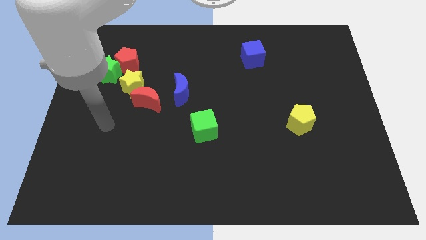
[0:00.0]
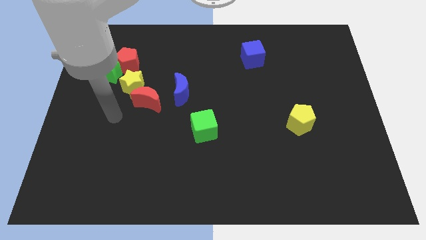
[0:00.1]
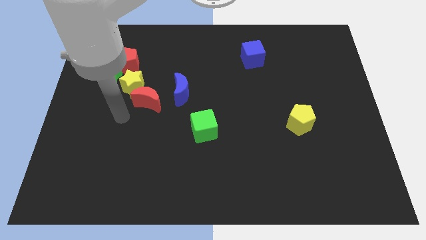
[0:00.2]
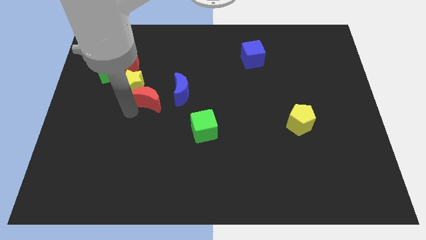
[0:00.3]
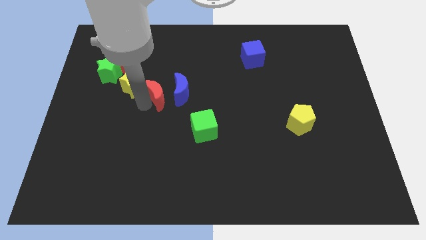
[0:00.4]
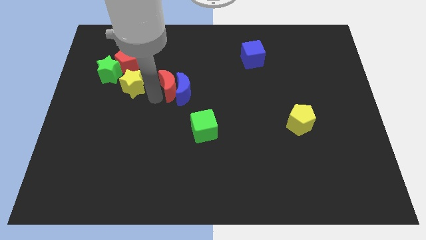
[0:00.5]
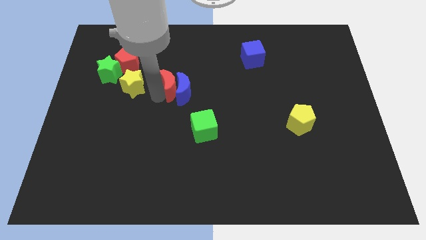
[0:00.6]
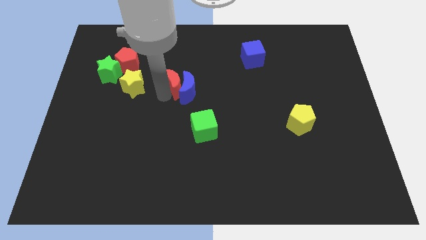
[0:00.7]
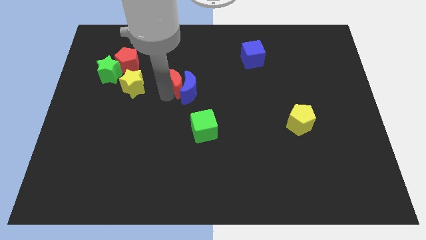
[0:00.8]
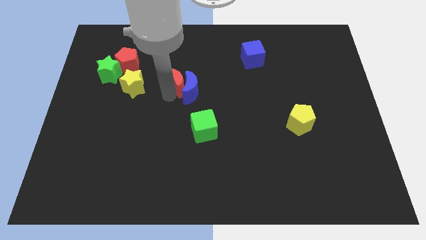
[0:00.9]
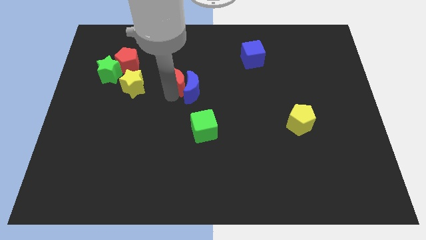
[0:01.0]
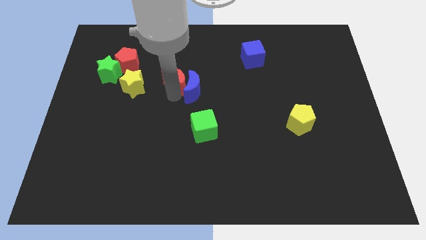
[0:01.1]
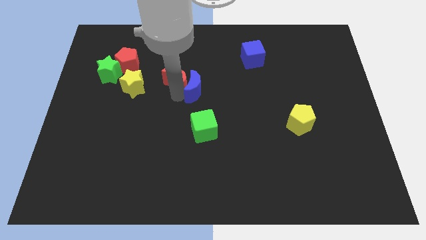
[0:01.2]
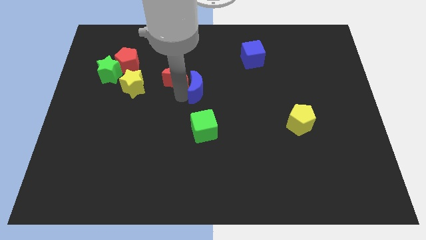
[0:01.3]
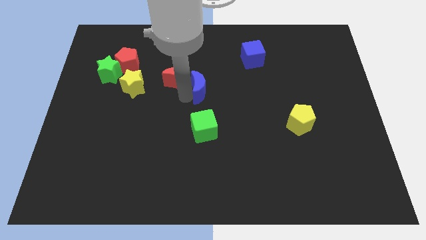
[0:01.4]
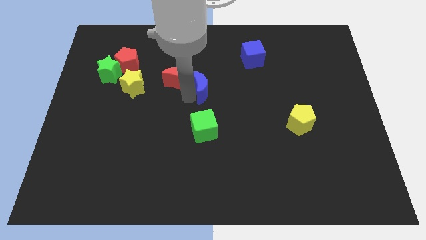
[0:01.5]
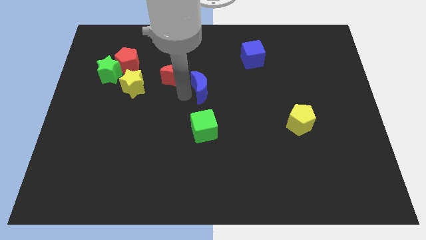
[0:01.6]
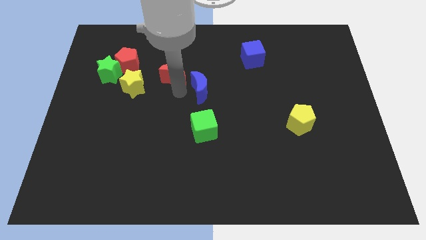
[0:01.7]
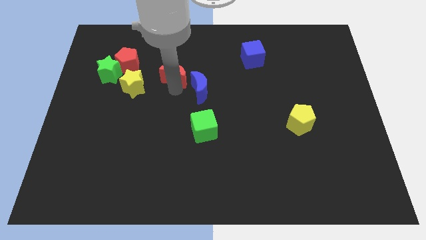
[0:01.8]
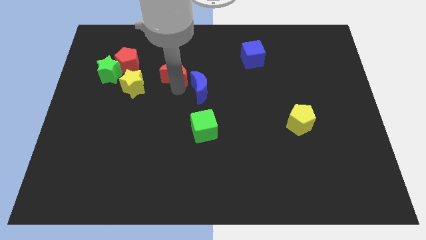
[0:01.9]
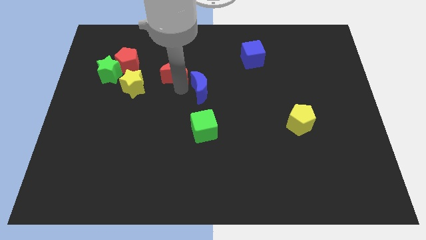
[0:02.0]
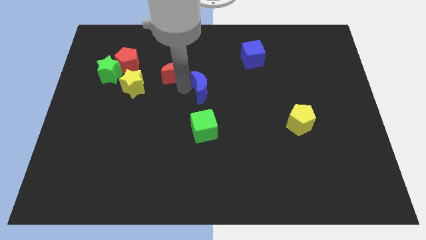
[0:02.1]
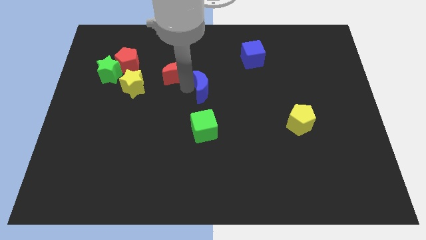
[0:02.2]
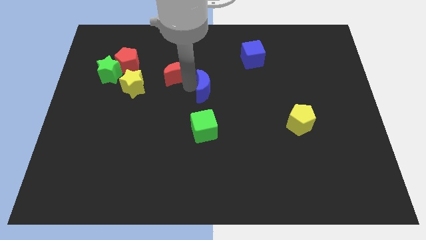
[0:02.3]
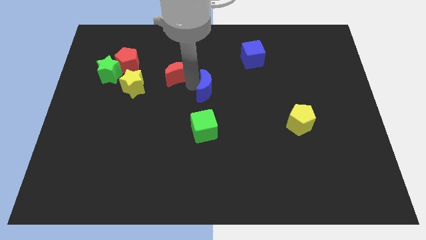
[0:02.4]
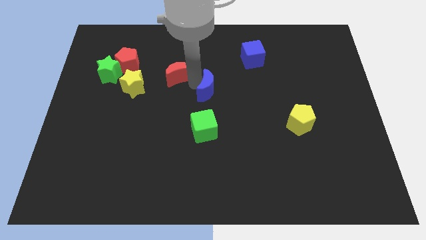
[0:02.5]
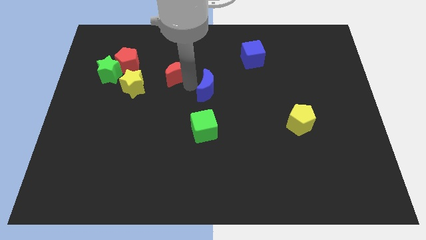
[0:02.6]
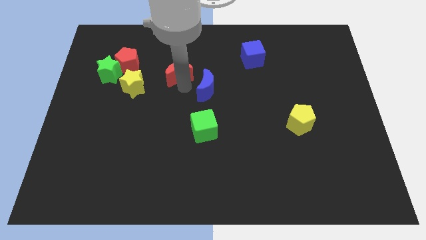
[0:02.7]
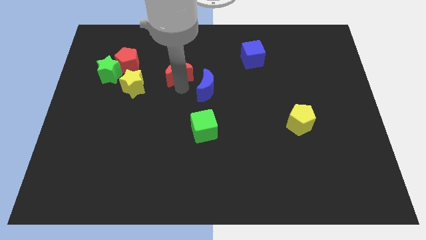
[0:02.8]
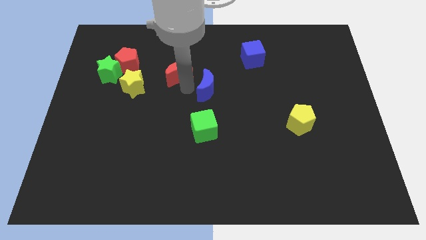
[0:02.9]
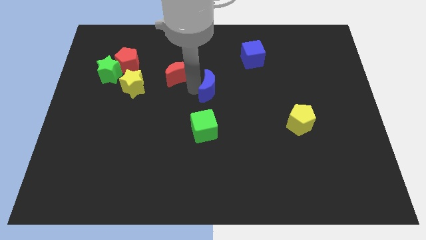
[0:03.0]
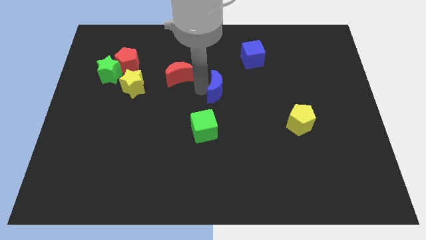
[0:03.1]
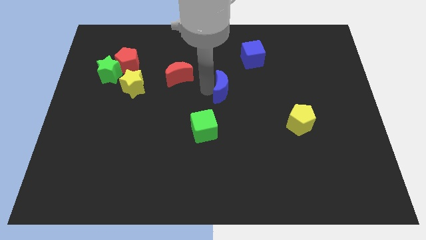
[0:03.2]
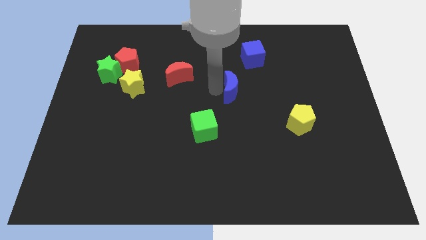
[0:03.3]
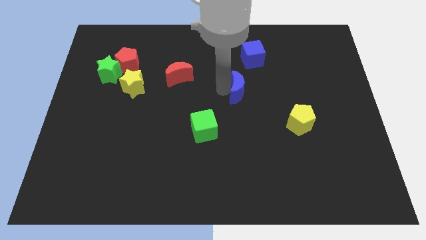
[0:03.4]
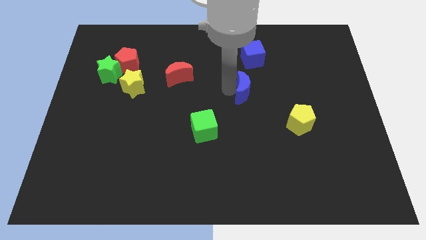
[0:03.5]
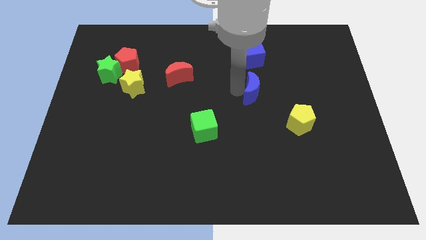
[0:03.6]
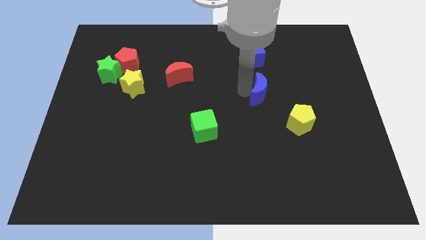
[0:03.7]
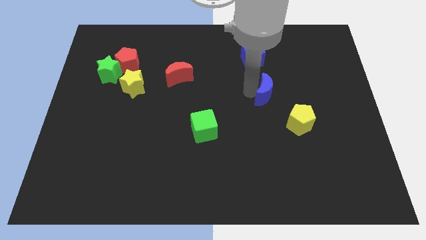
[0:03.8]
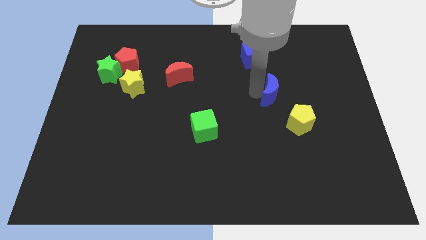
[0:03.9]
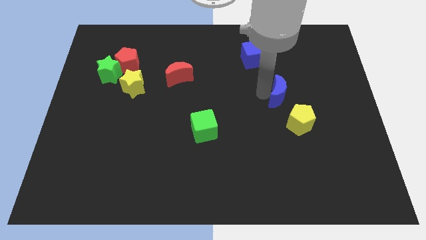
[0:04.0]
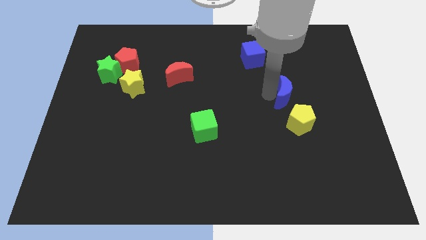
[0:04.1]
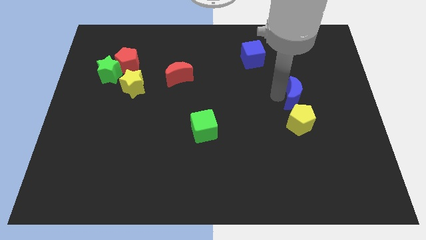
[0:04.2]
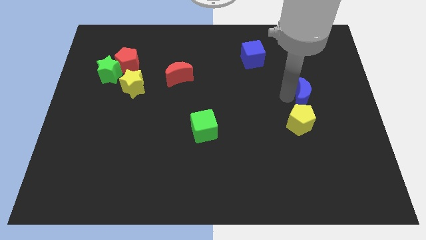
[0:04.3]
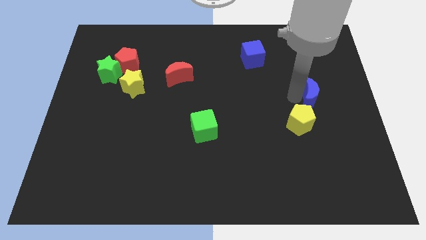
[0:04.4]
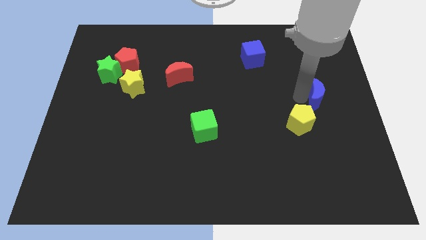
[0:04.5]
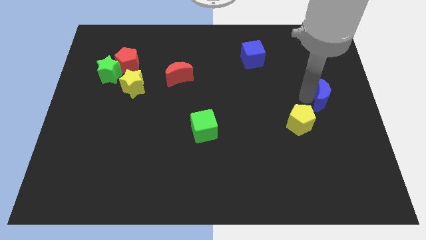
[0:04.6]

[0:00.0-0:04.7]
put the blue moon to the right side

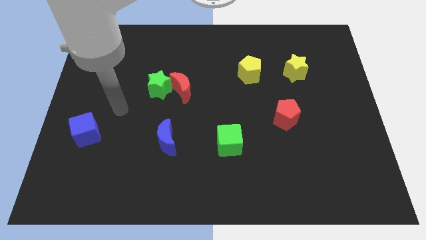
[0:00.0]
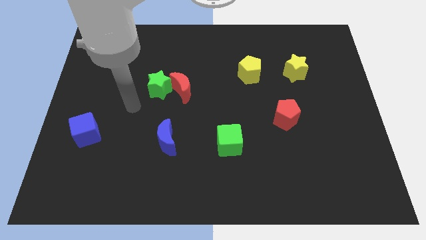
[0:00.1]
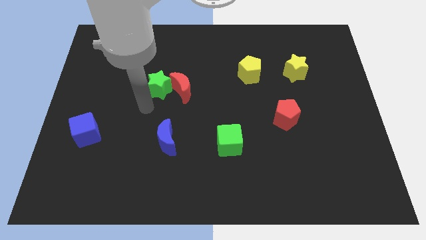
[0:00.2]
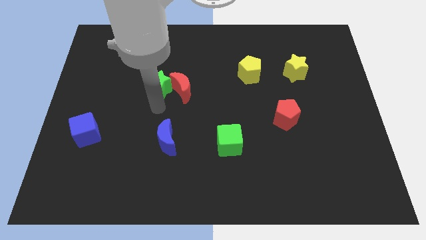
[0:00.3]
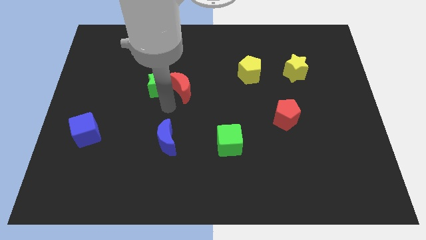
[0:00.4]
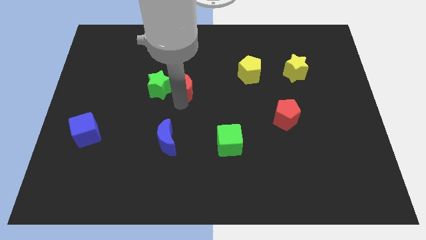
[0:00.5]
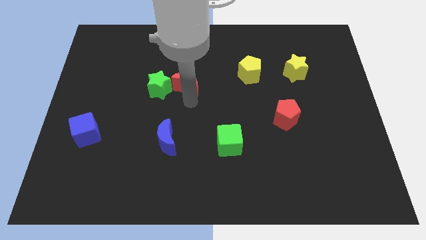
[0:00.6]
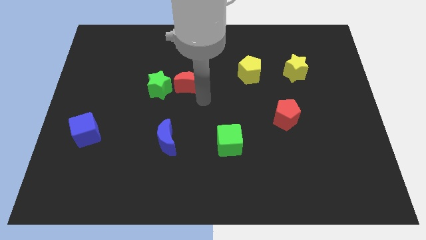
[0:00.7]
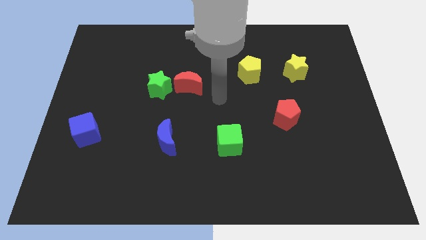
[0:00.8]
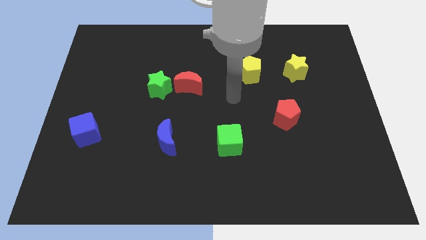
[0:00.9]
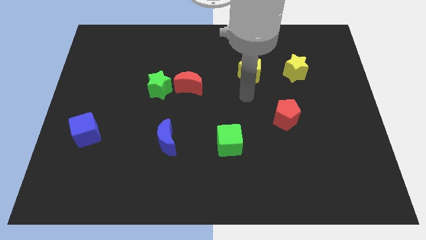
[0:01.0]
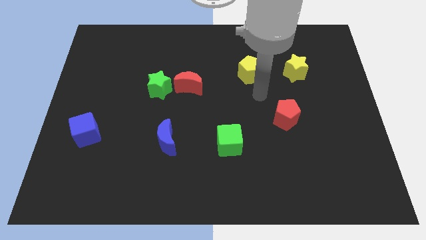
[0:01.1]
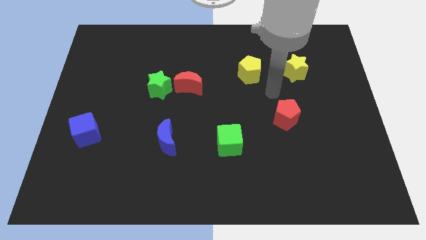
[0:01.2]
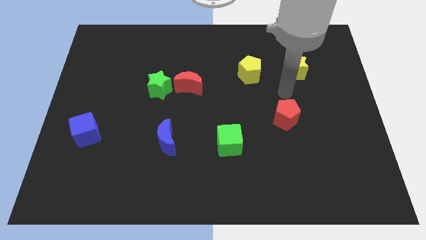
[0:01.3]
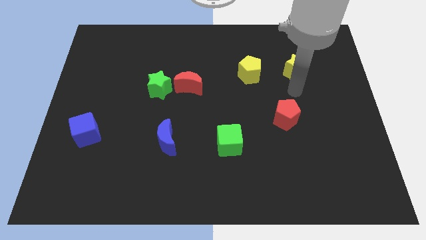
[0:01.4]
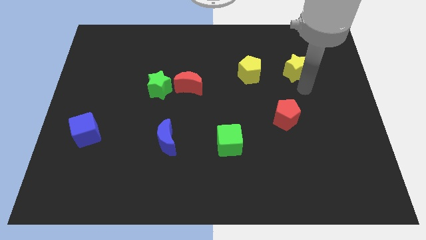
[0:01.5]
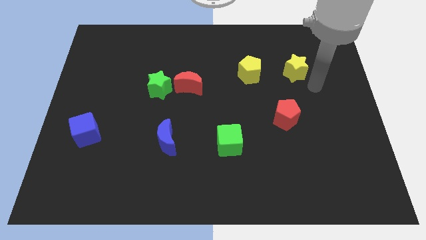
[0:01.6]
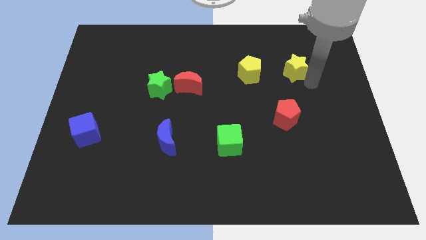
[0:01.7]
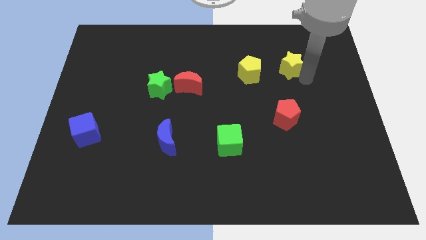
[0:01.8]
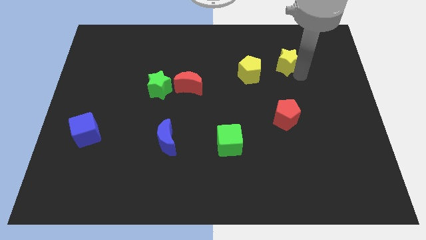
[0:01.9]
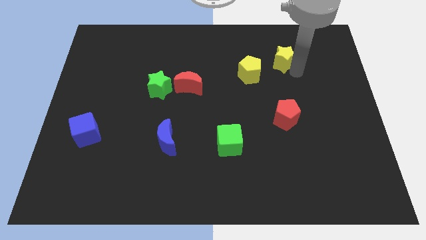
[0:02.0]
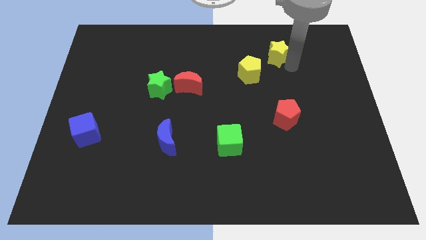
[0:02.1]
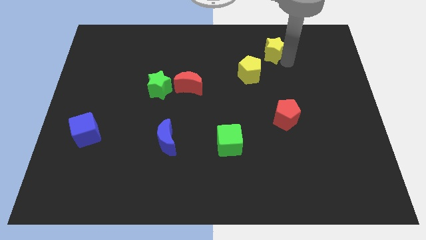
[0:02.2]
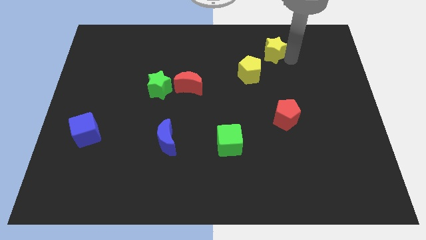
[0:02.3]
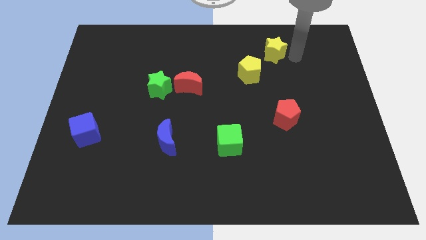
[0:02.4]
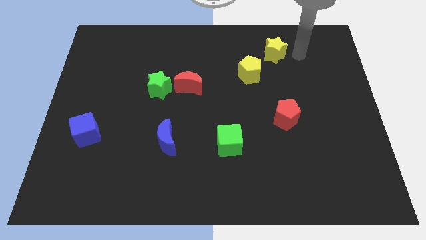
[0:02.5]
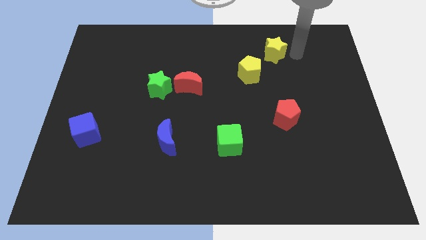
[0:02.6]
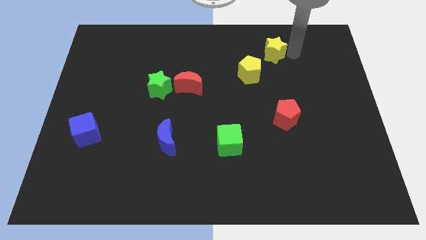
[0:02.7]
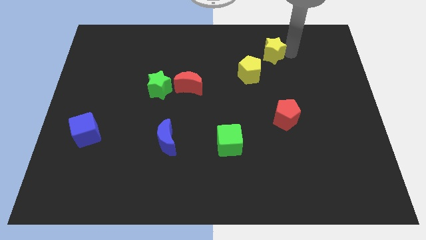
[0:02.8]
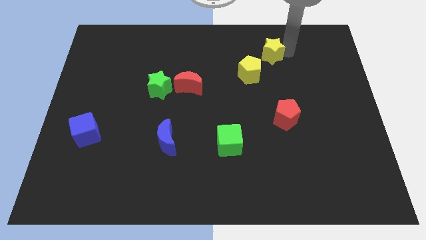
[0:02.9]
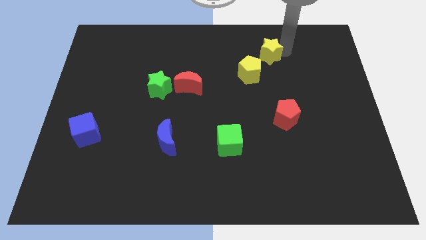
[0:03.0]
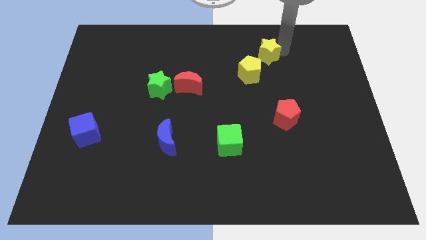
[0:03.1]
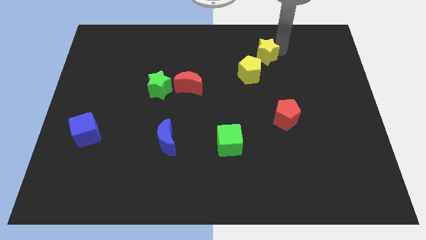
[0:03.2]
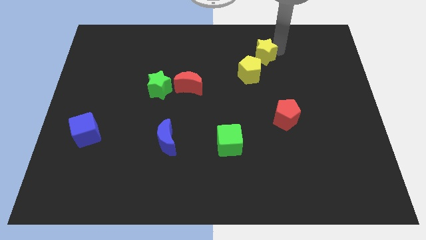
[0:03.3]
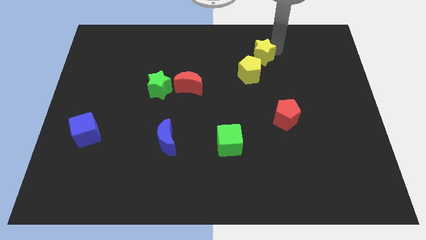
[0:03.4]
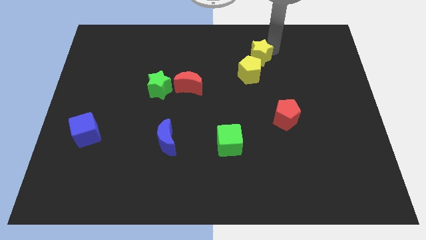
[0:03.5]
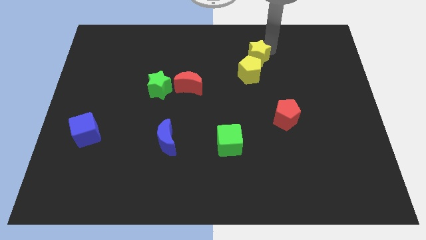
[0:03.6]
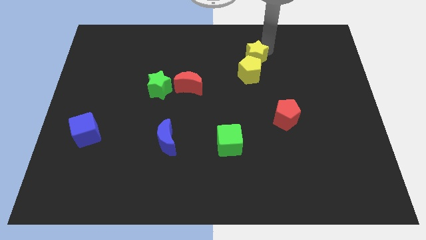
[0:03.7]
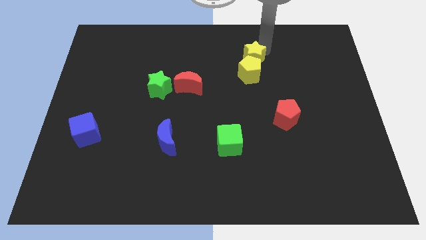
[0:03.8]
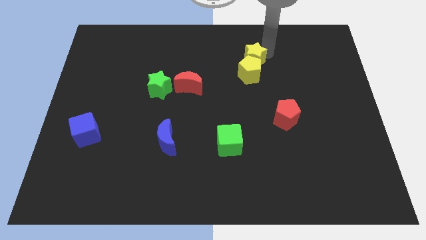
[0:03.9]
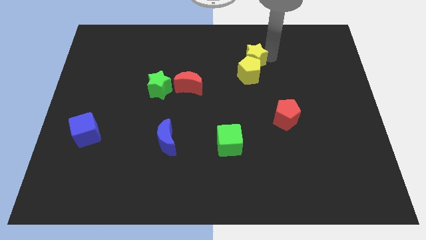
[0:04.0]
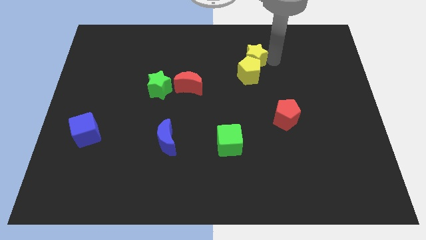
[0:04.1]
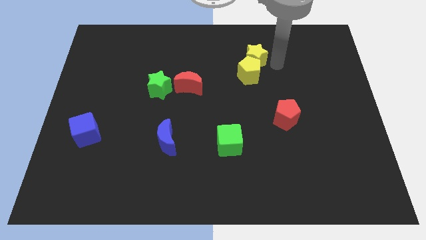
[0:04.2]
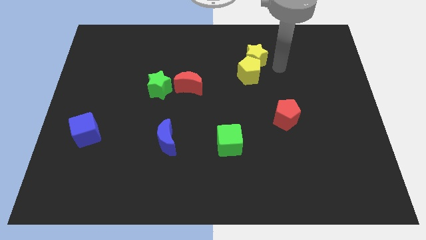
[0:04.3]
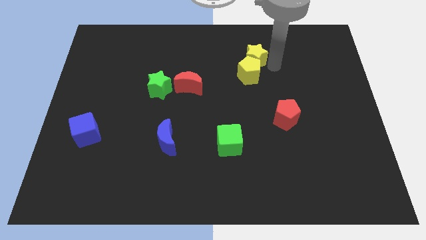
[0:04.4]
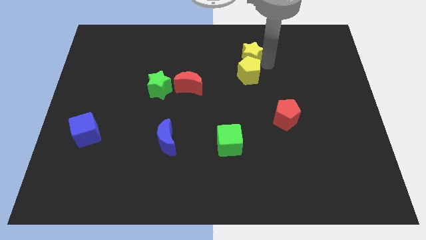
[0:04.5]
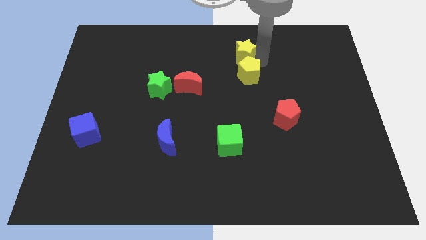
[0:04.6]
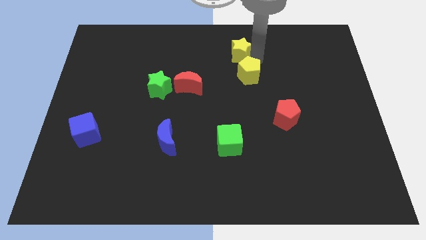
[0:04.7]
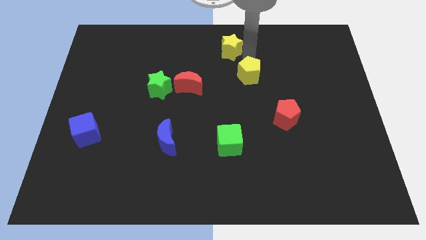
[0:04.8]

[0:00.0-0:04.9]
slide the yellow star to the towards your base
